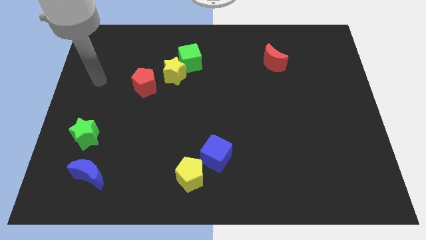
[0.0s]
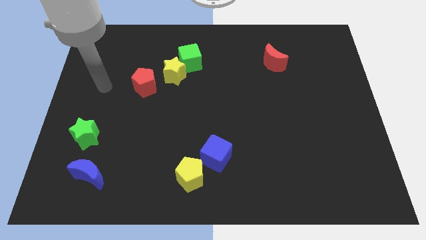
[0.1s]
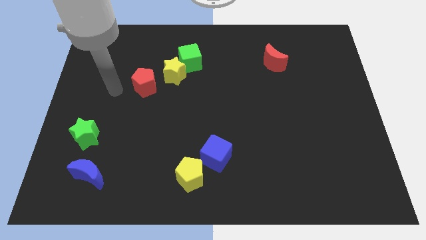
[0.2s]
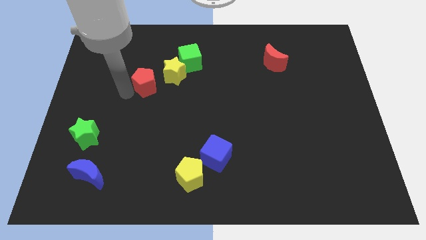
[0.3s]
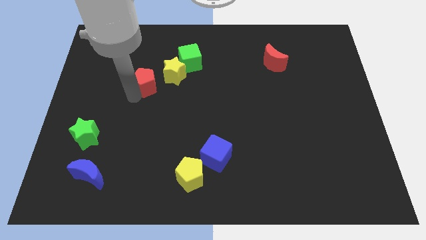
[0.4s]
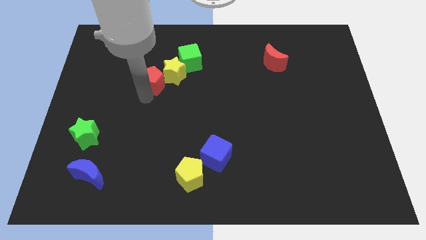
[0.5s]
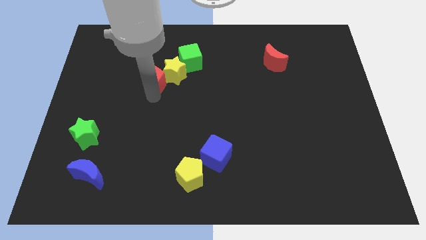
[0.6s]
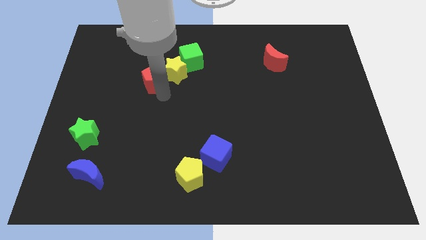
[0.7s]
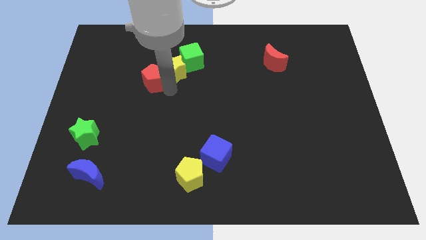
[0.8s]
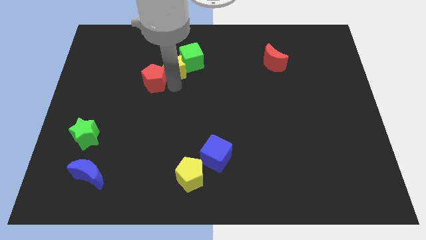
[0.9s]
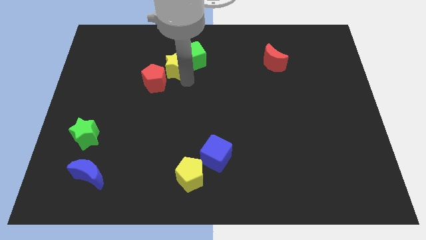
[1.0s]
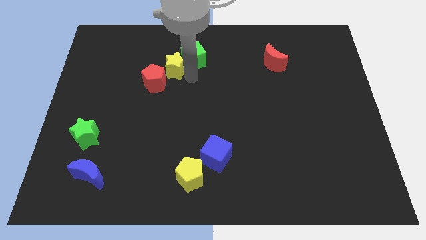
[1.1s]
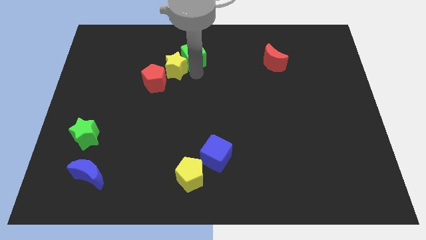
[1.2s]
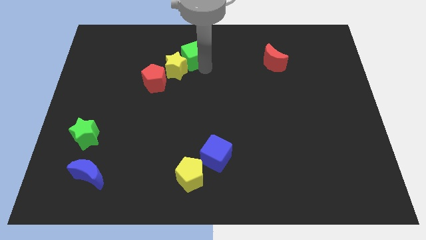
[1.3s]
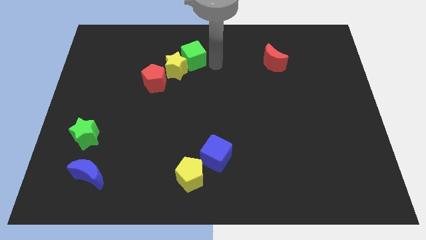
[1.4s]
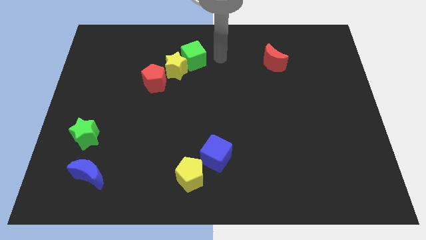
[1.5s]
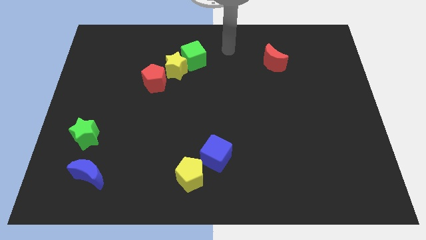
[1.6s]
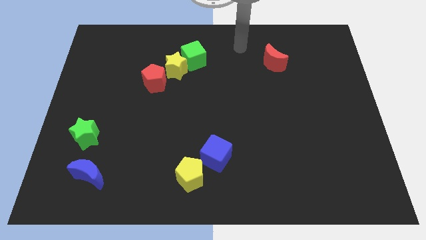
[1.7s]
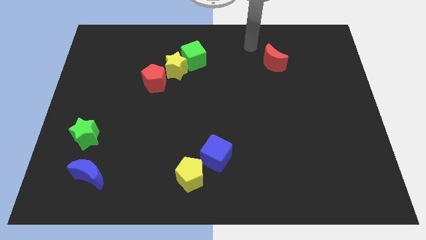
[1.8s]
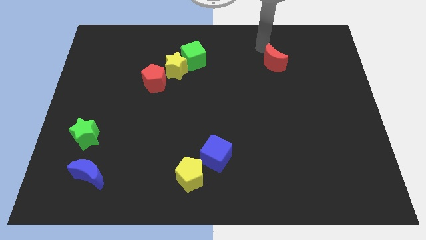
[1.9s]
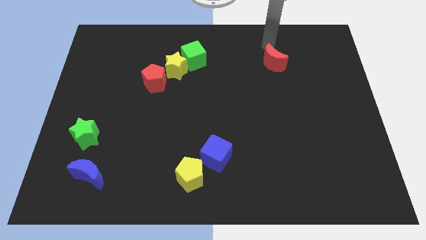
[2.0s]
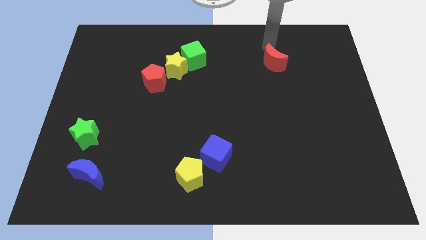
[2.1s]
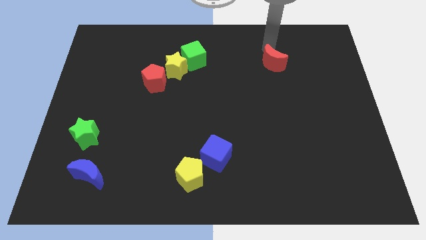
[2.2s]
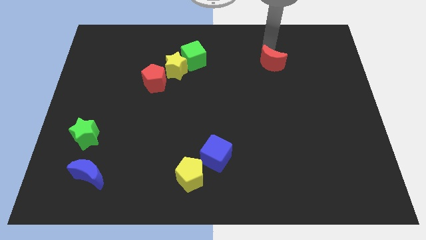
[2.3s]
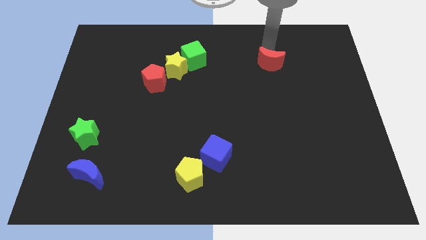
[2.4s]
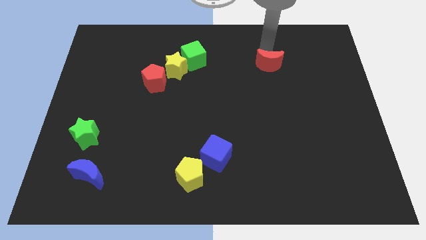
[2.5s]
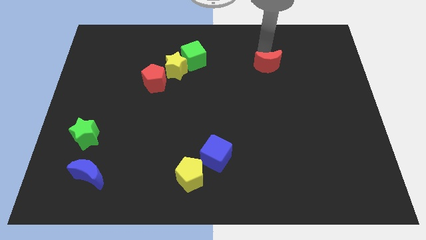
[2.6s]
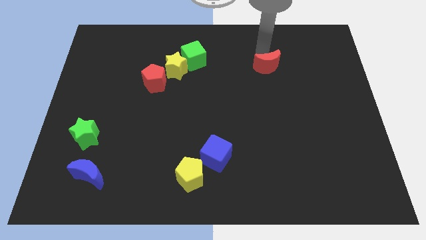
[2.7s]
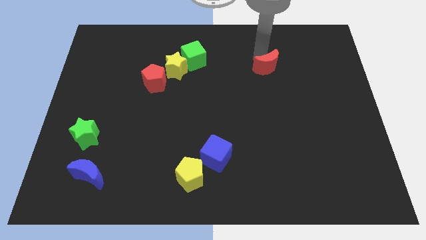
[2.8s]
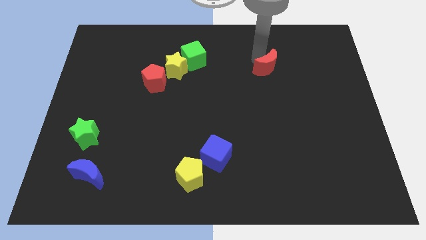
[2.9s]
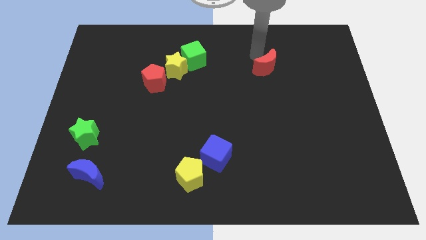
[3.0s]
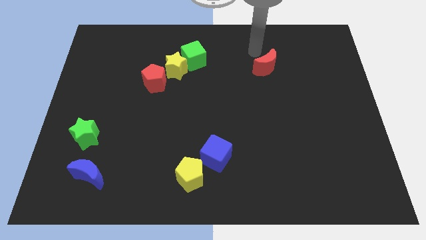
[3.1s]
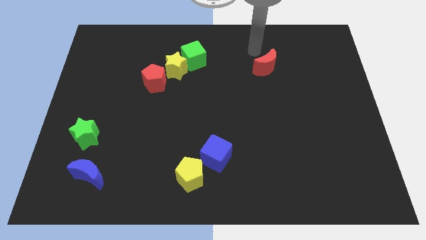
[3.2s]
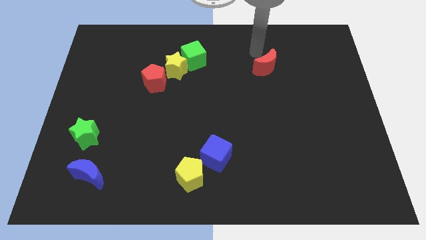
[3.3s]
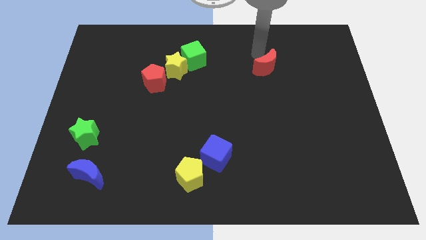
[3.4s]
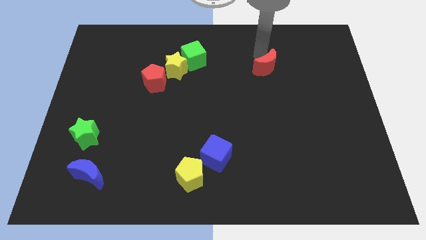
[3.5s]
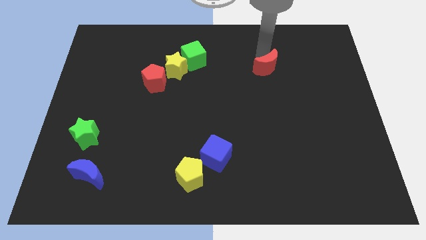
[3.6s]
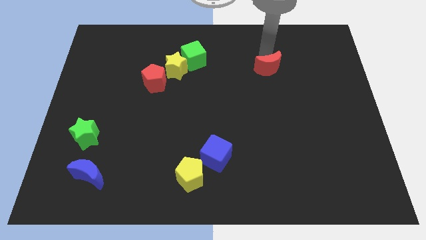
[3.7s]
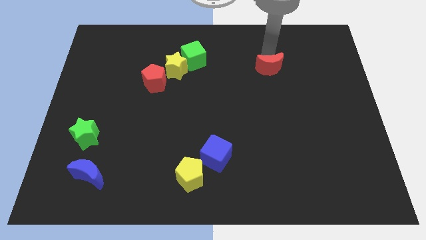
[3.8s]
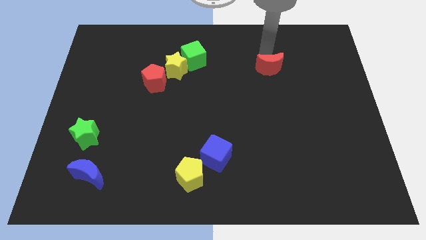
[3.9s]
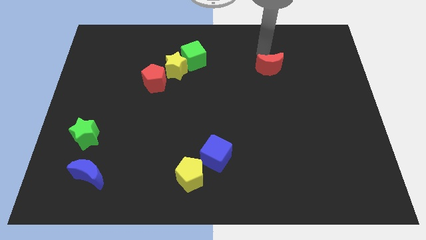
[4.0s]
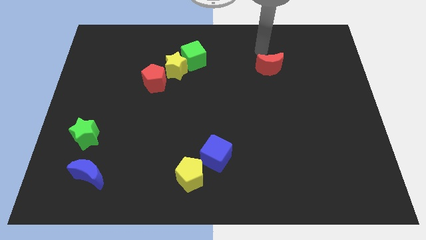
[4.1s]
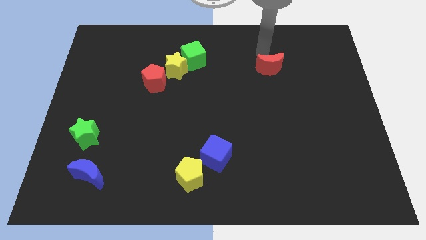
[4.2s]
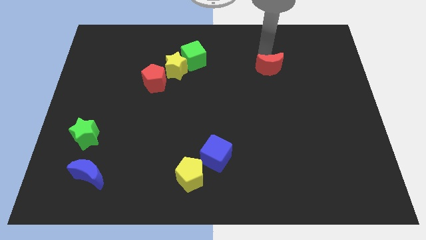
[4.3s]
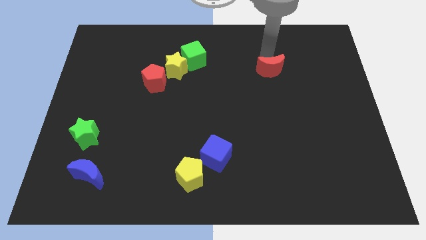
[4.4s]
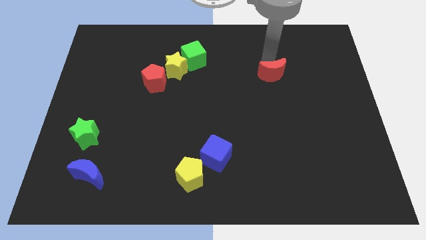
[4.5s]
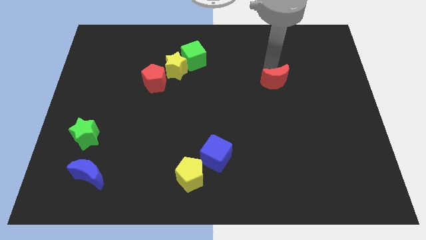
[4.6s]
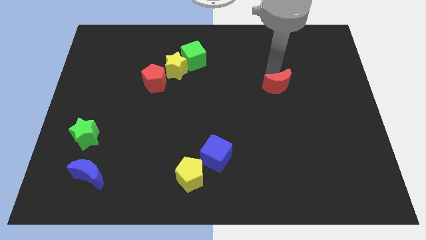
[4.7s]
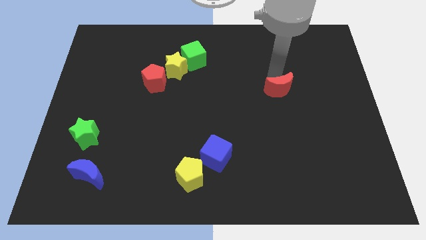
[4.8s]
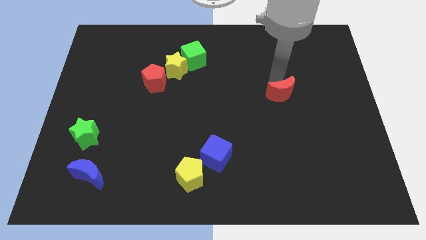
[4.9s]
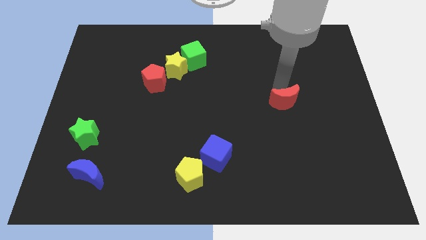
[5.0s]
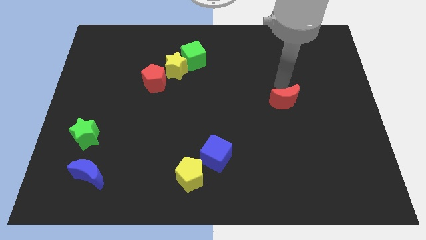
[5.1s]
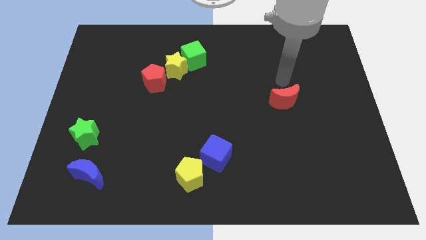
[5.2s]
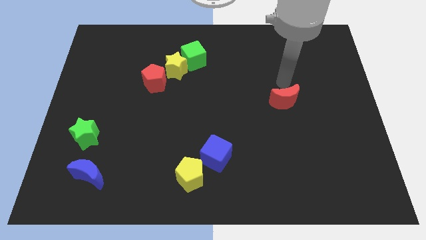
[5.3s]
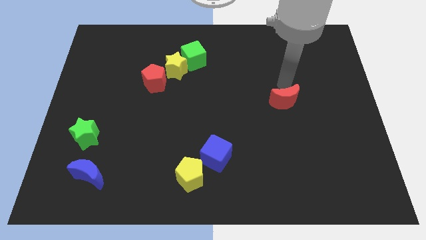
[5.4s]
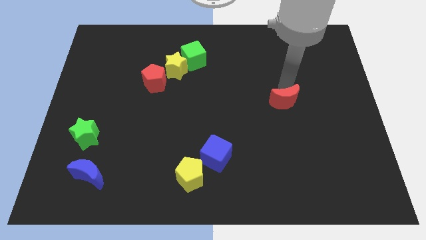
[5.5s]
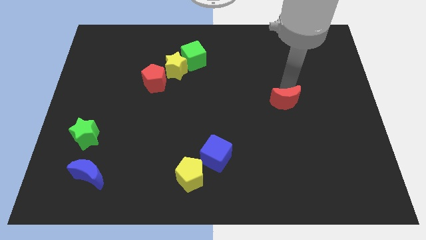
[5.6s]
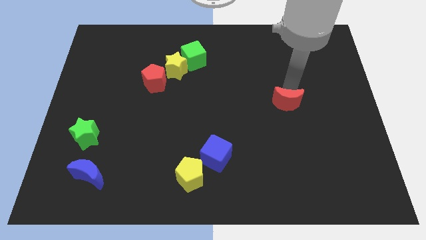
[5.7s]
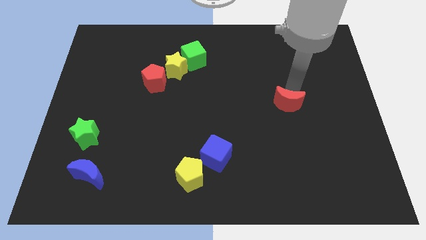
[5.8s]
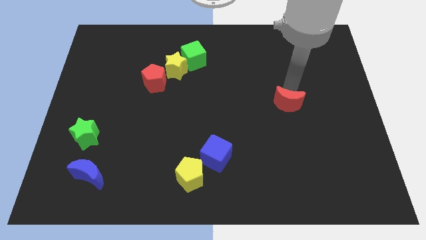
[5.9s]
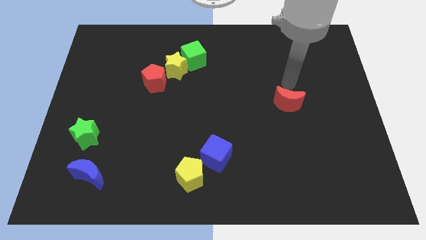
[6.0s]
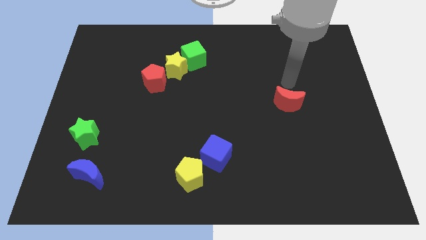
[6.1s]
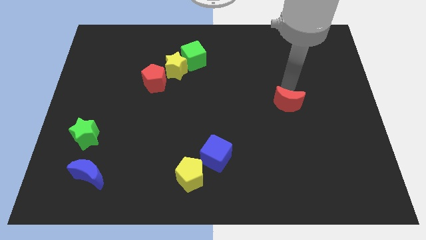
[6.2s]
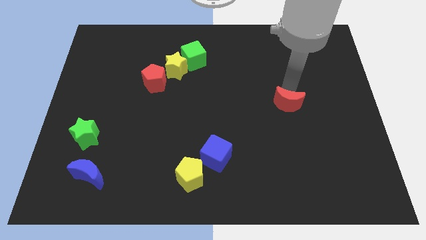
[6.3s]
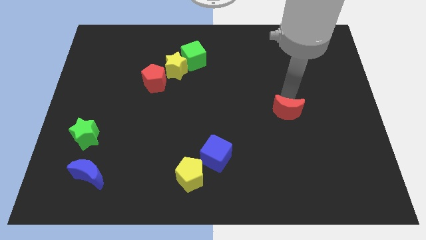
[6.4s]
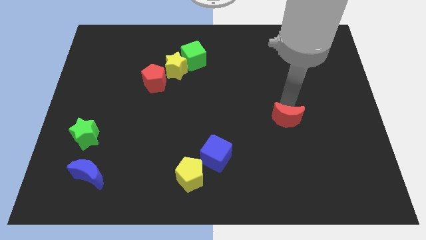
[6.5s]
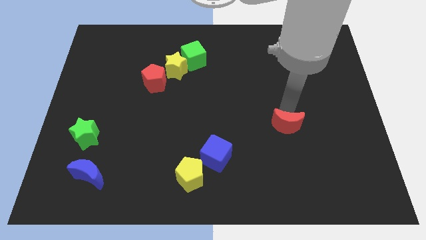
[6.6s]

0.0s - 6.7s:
move the red moon downwards

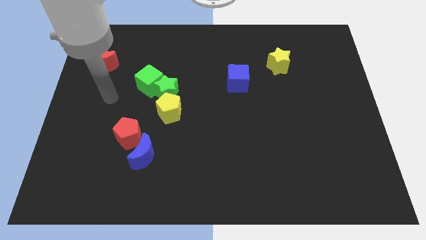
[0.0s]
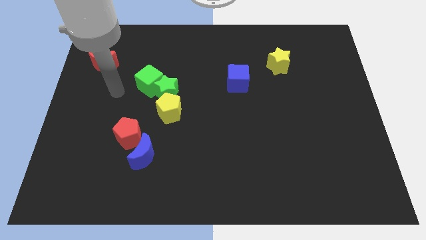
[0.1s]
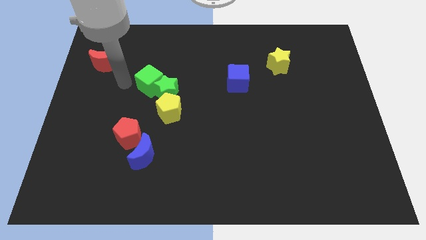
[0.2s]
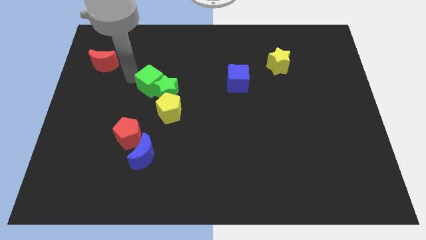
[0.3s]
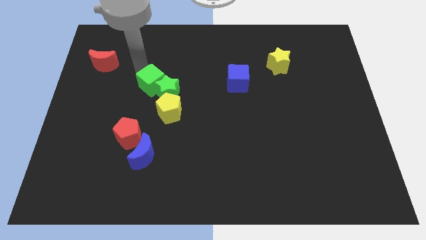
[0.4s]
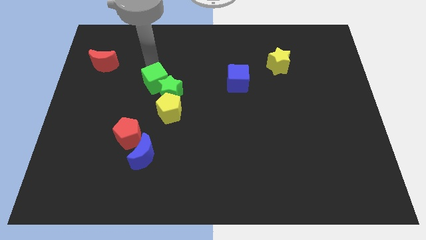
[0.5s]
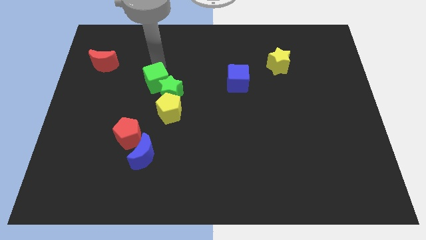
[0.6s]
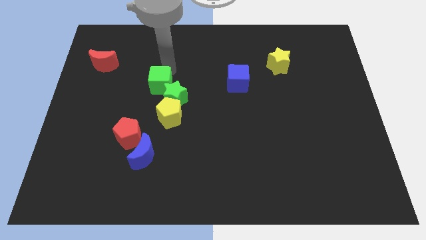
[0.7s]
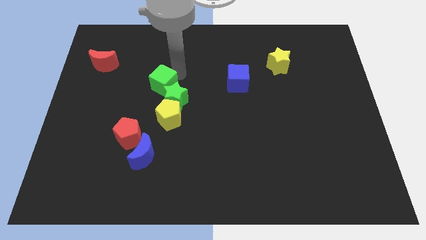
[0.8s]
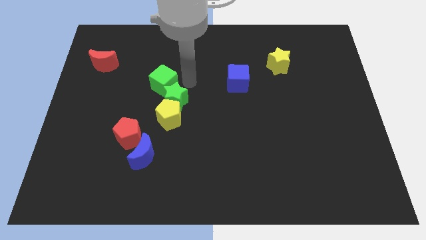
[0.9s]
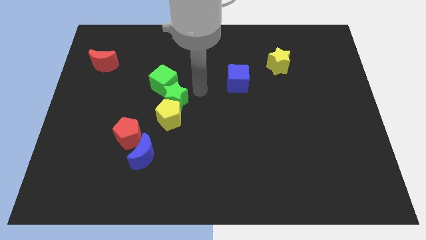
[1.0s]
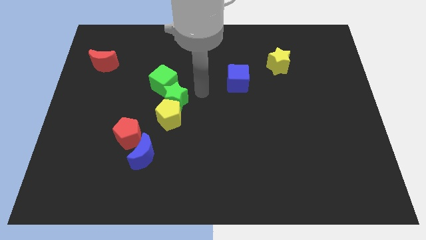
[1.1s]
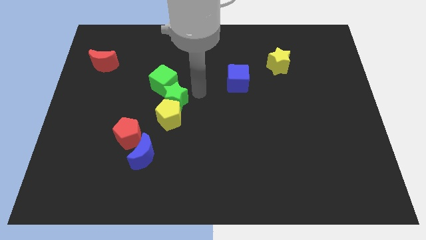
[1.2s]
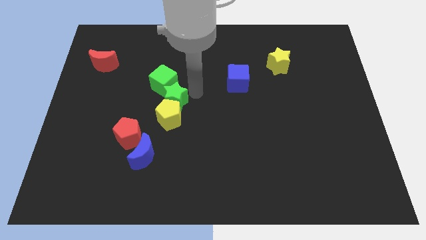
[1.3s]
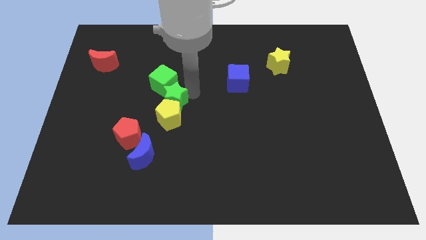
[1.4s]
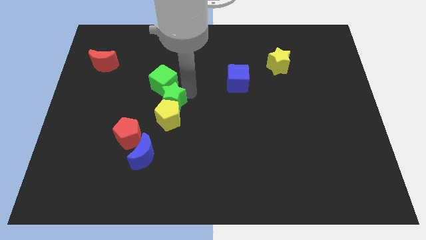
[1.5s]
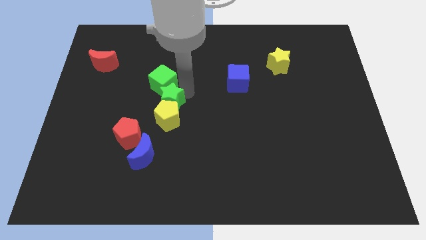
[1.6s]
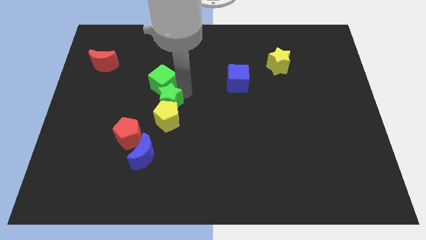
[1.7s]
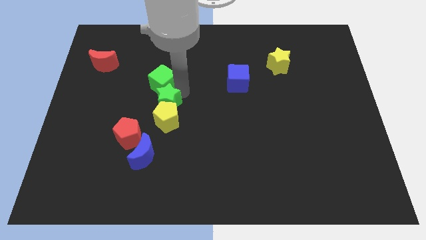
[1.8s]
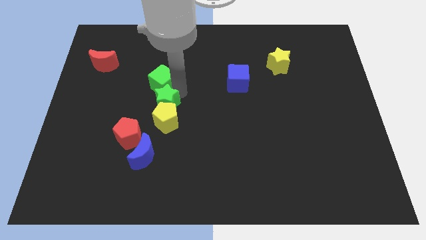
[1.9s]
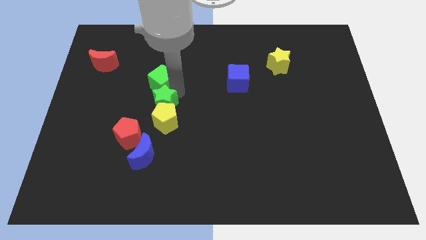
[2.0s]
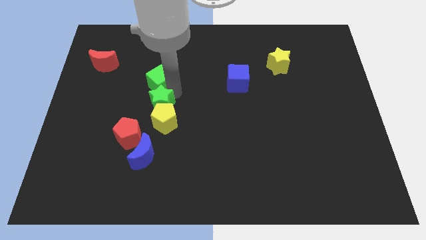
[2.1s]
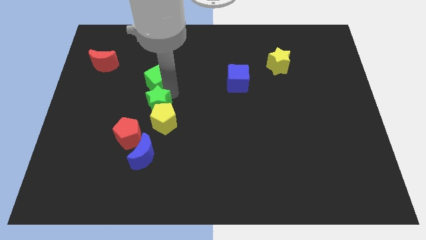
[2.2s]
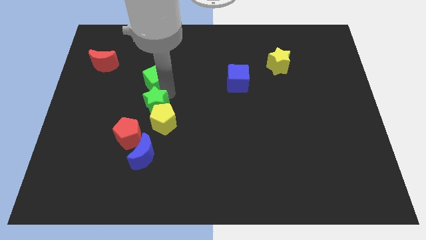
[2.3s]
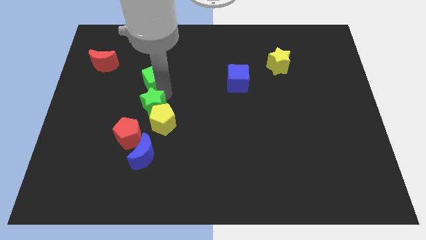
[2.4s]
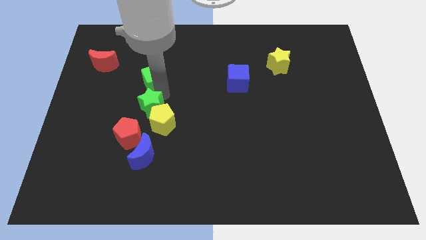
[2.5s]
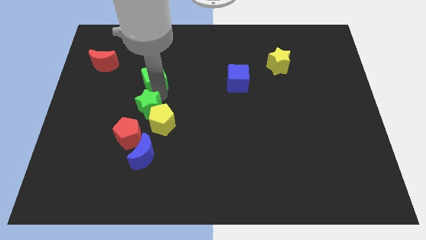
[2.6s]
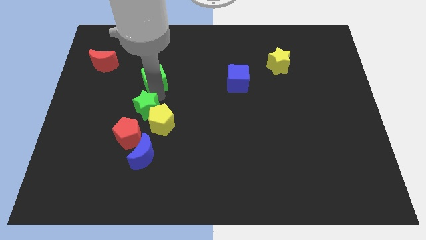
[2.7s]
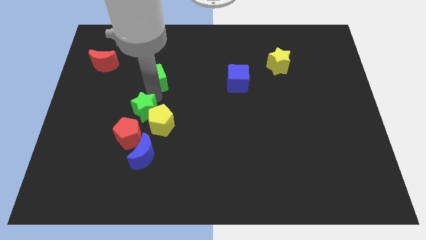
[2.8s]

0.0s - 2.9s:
slide the green star somewhat diagonally downwards and to the left
